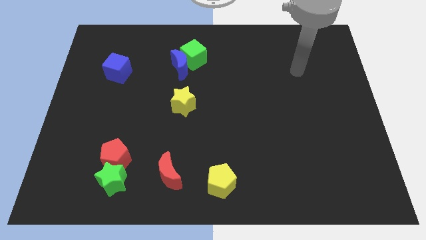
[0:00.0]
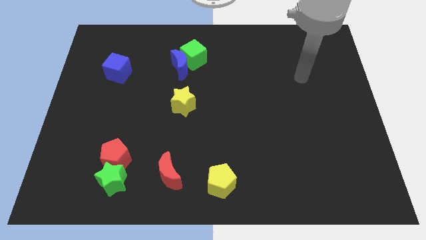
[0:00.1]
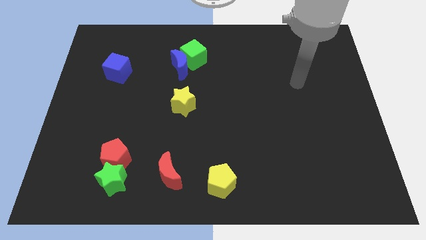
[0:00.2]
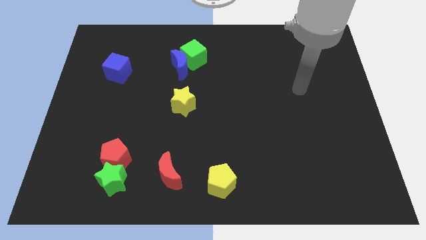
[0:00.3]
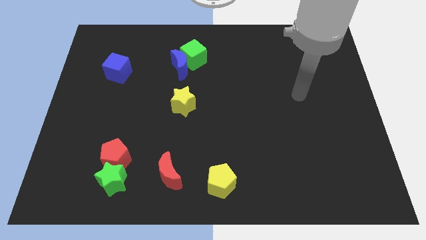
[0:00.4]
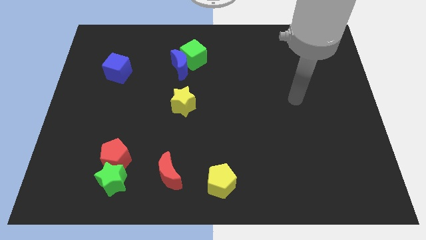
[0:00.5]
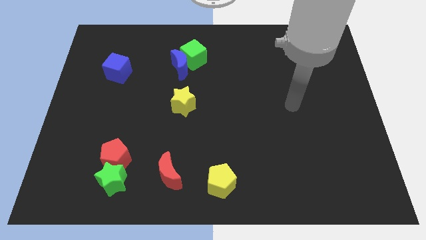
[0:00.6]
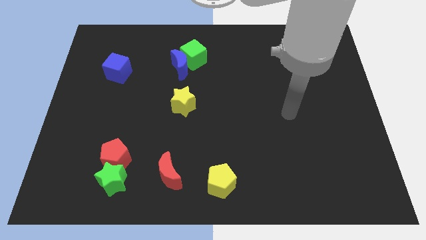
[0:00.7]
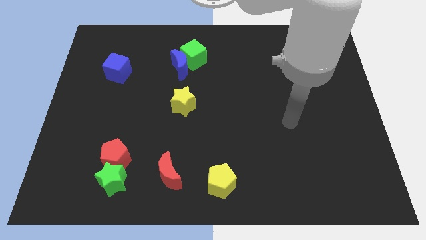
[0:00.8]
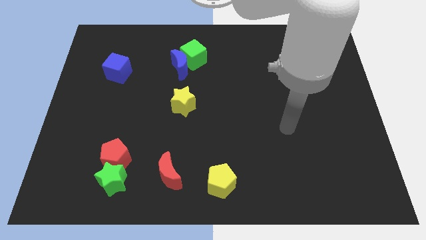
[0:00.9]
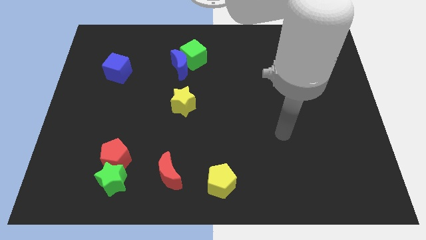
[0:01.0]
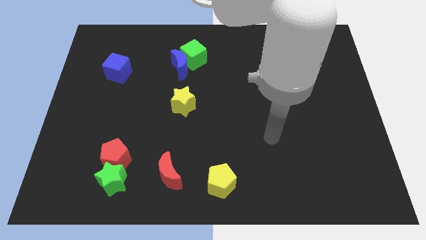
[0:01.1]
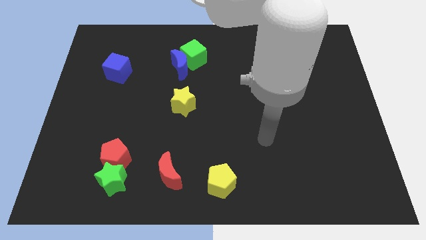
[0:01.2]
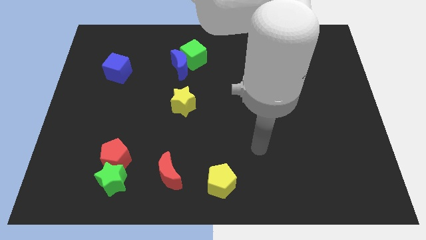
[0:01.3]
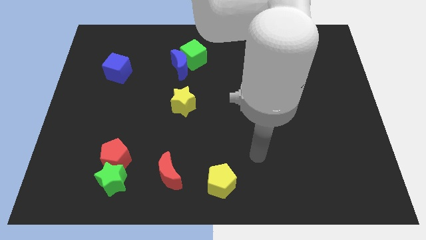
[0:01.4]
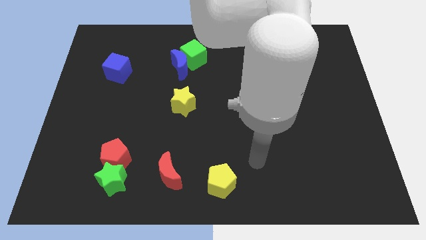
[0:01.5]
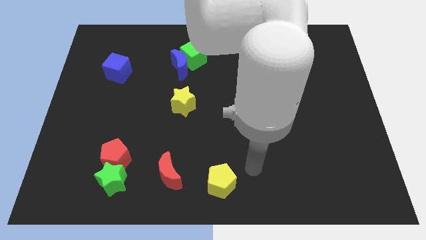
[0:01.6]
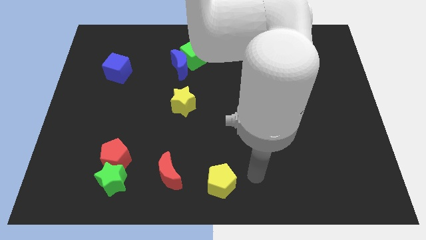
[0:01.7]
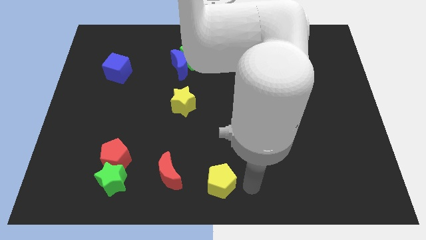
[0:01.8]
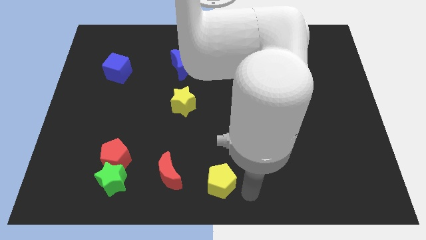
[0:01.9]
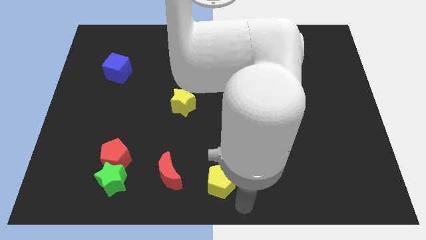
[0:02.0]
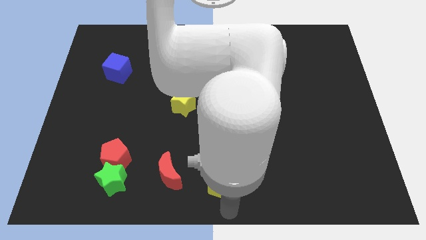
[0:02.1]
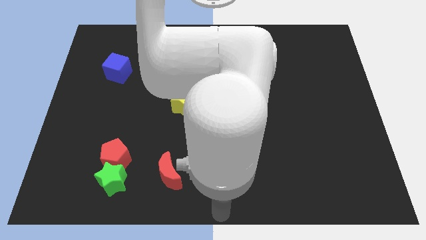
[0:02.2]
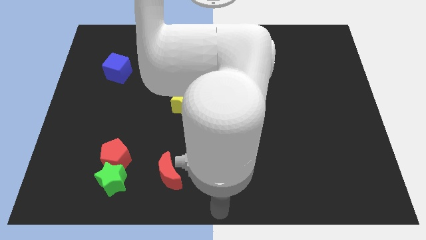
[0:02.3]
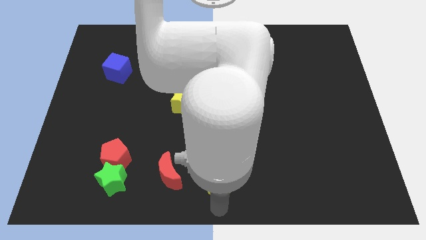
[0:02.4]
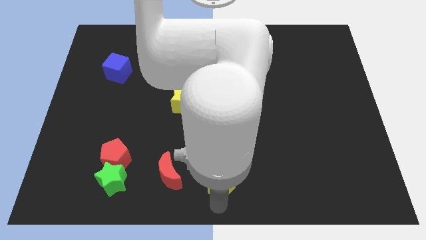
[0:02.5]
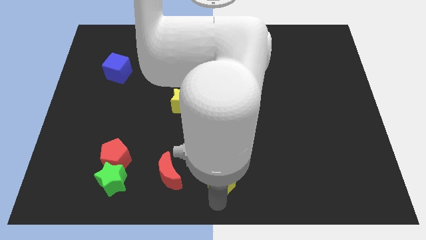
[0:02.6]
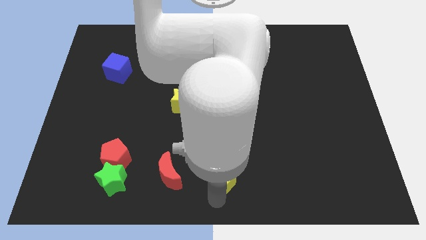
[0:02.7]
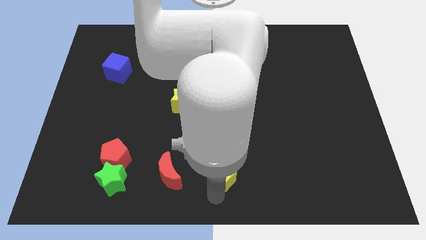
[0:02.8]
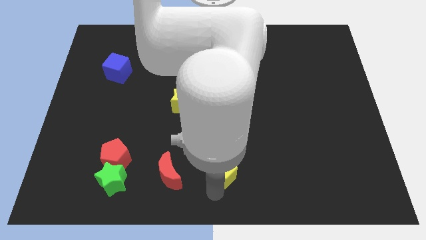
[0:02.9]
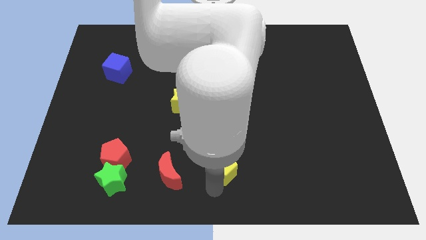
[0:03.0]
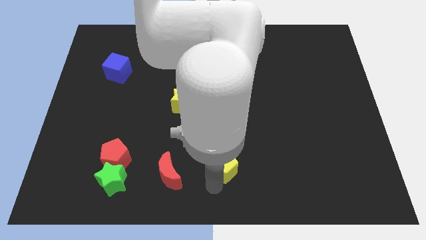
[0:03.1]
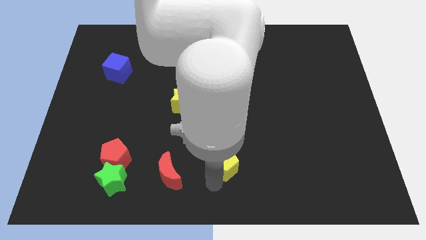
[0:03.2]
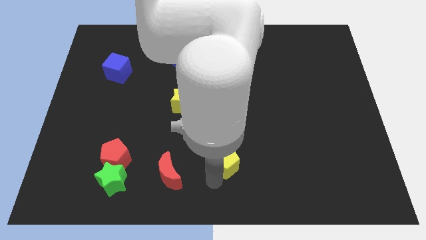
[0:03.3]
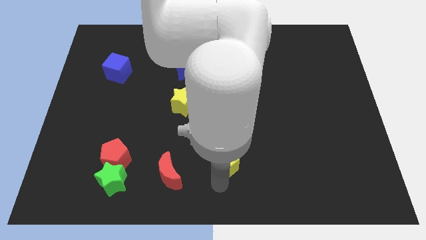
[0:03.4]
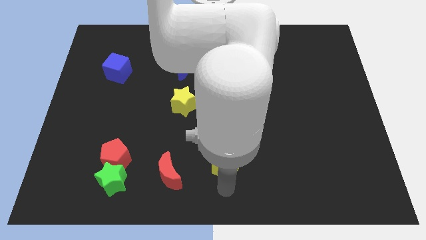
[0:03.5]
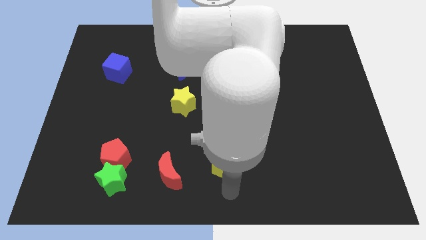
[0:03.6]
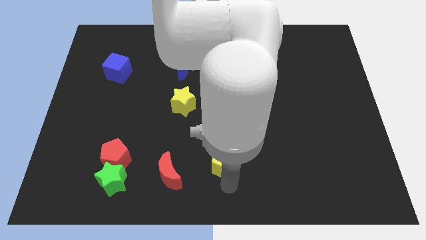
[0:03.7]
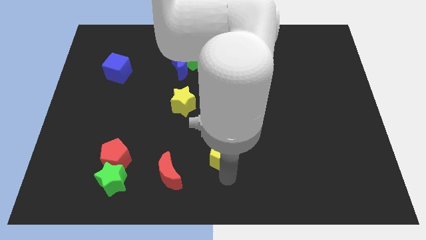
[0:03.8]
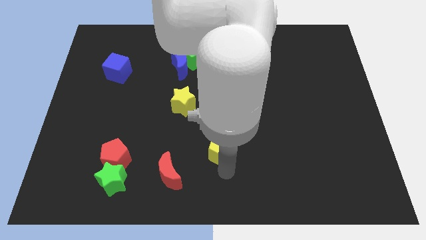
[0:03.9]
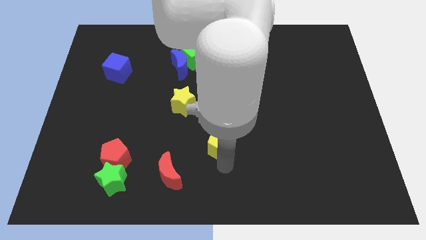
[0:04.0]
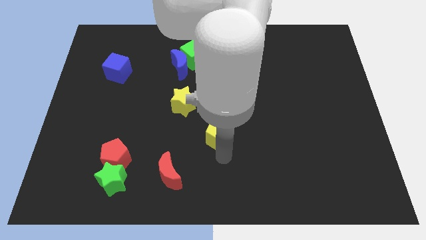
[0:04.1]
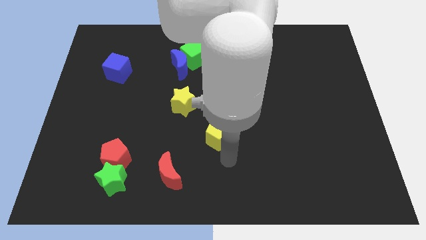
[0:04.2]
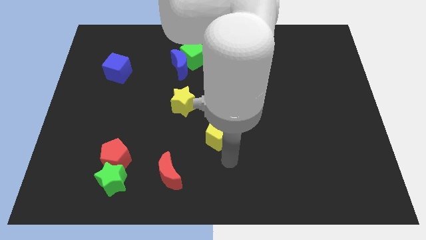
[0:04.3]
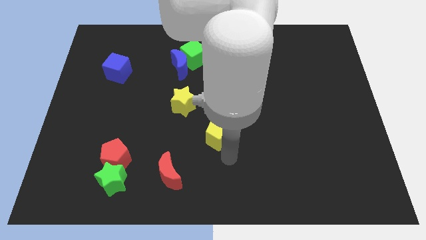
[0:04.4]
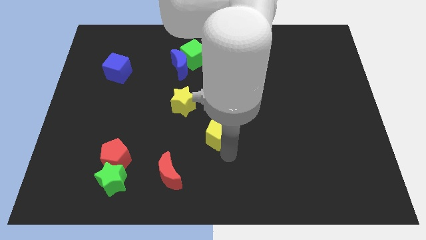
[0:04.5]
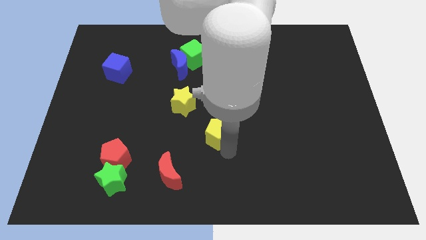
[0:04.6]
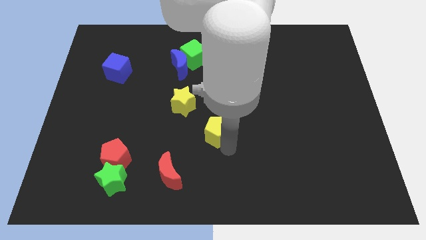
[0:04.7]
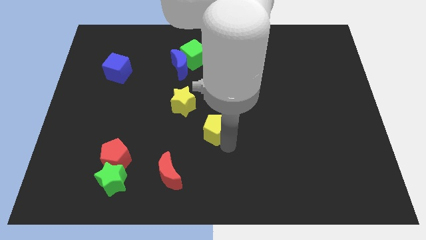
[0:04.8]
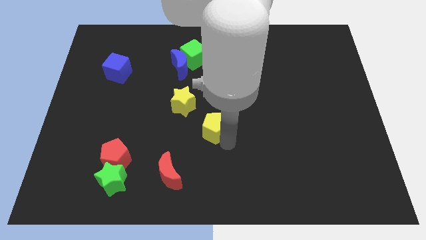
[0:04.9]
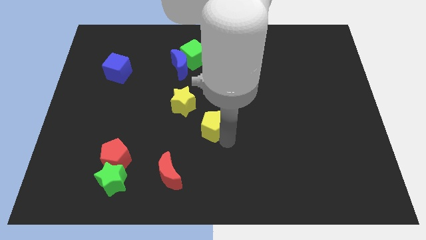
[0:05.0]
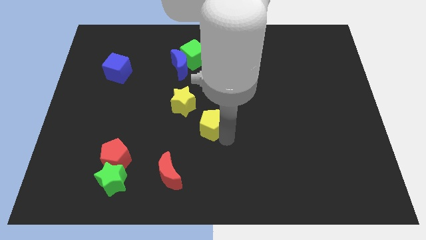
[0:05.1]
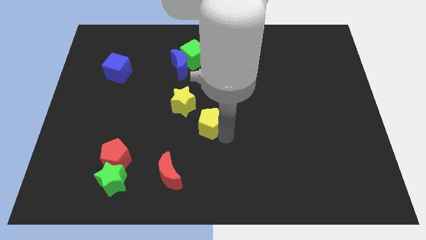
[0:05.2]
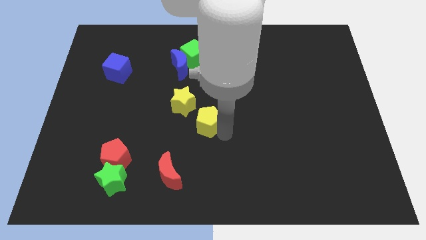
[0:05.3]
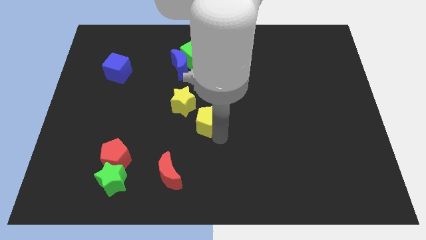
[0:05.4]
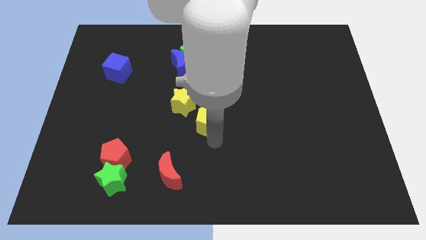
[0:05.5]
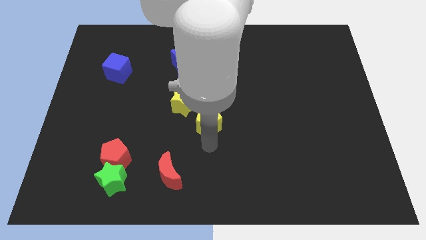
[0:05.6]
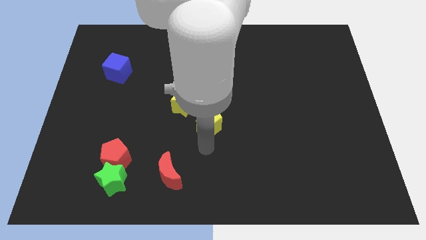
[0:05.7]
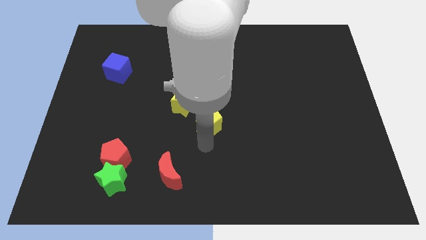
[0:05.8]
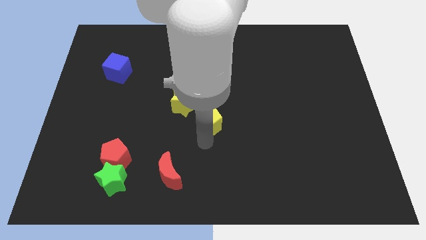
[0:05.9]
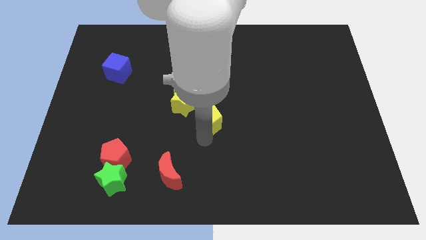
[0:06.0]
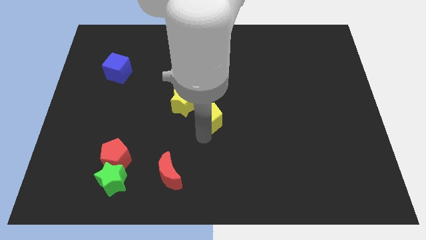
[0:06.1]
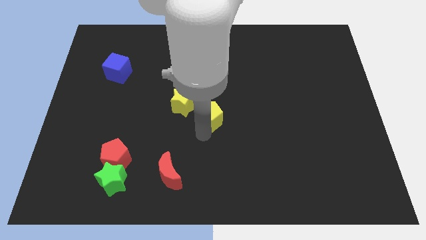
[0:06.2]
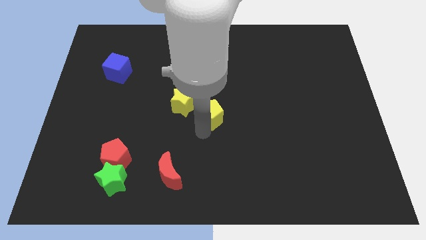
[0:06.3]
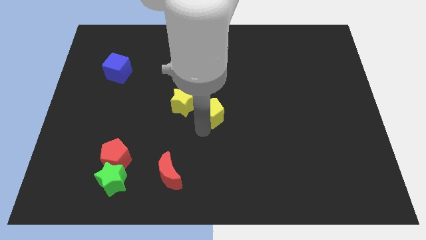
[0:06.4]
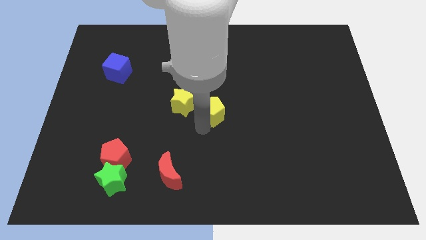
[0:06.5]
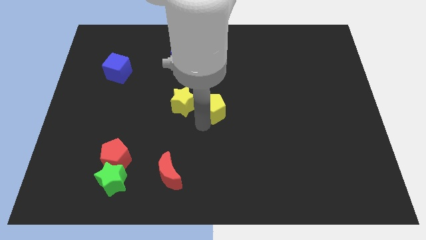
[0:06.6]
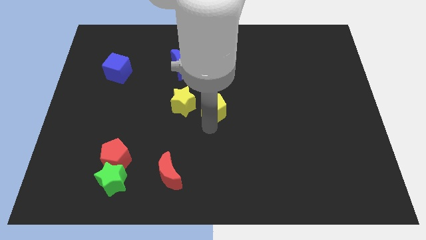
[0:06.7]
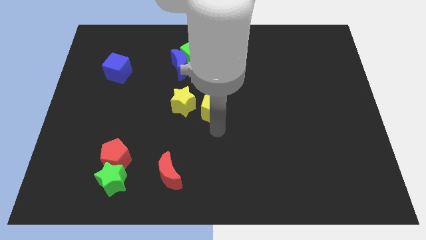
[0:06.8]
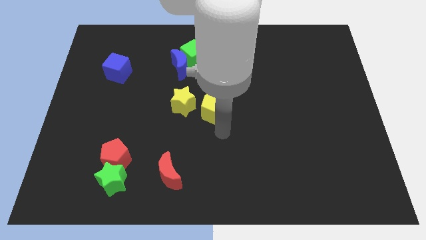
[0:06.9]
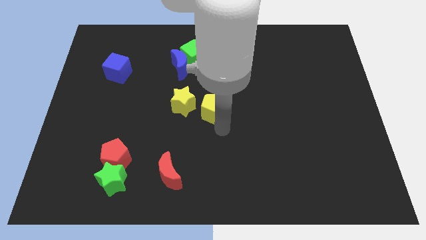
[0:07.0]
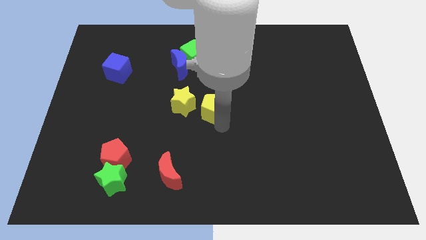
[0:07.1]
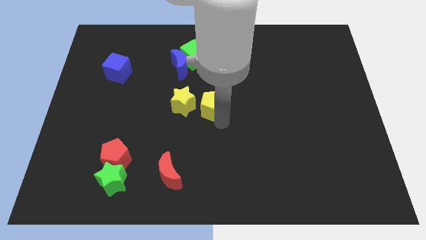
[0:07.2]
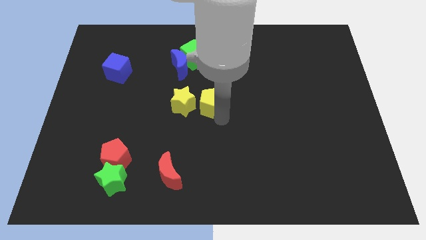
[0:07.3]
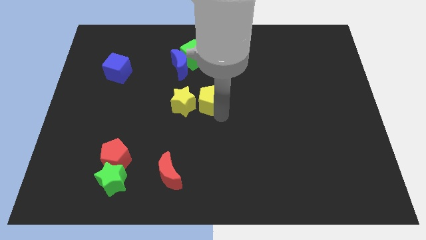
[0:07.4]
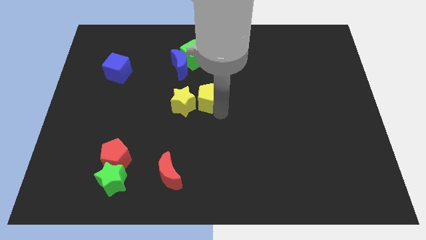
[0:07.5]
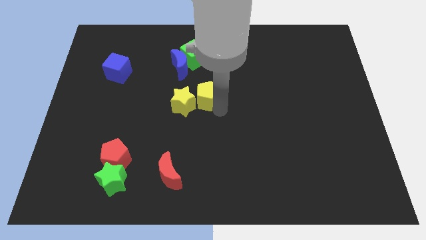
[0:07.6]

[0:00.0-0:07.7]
move the yellow pentagon diagonally down and to the right of the blue moon
